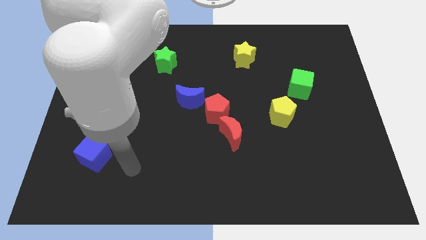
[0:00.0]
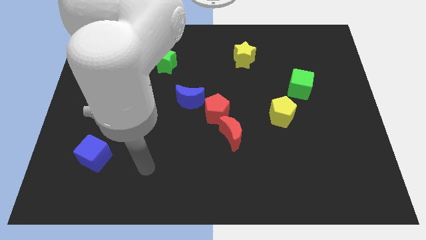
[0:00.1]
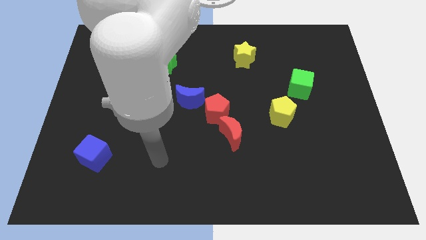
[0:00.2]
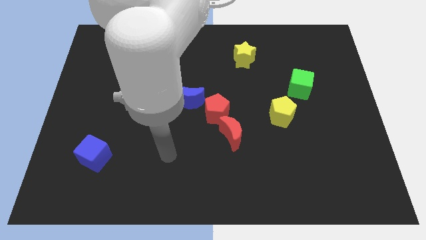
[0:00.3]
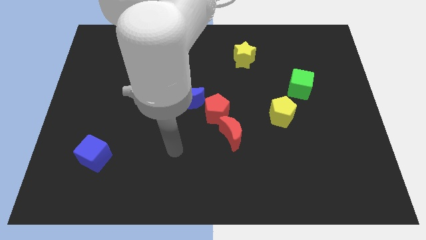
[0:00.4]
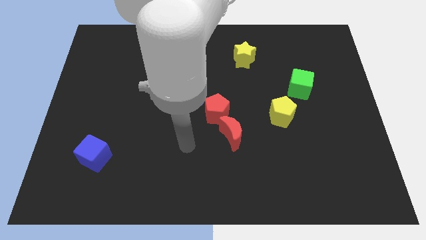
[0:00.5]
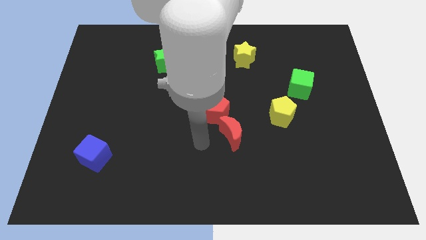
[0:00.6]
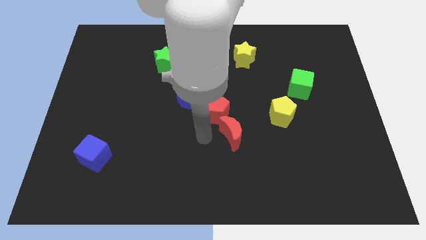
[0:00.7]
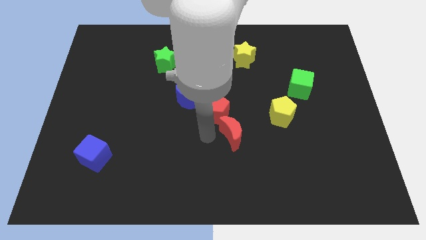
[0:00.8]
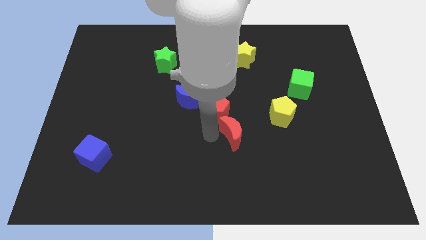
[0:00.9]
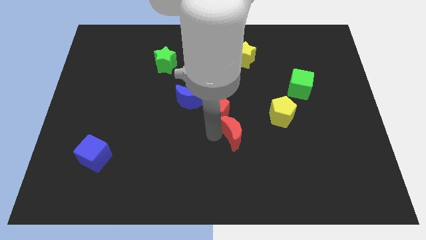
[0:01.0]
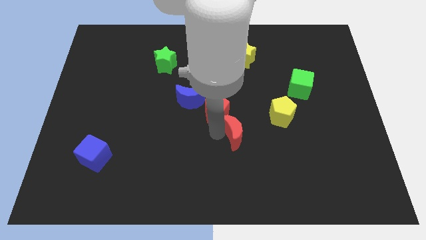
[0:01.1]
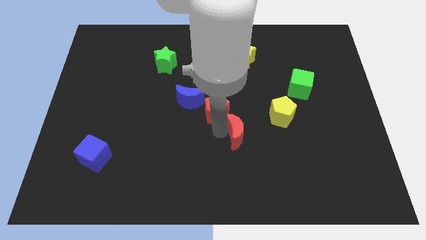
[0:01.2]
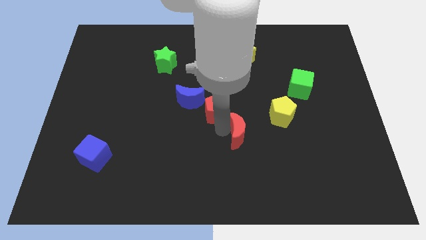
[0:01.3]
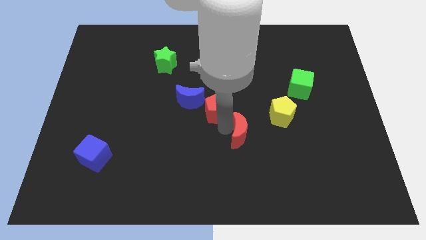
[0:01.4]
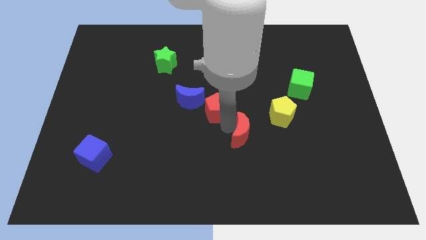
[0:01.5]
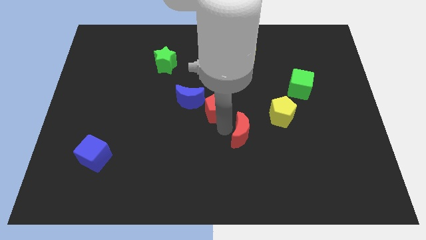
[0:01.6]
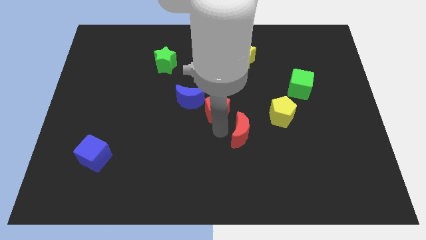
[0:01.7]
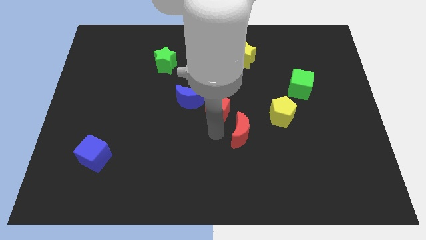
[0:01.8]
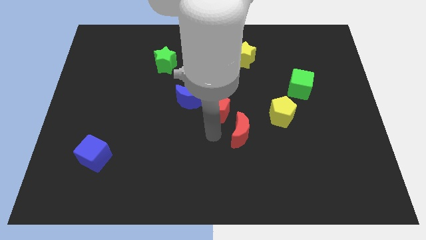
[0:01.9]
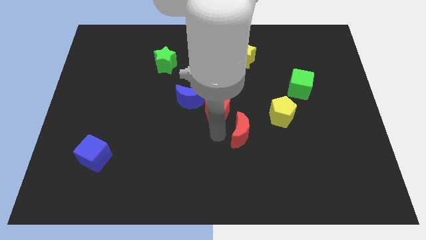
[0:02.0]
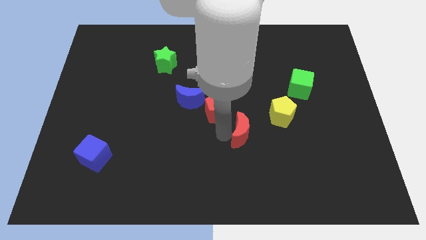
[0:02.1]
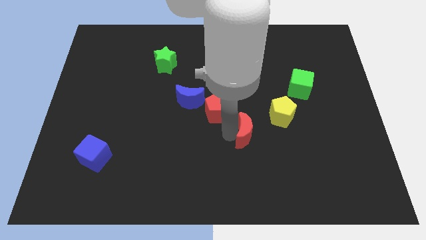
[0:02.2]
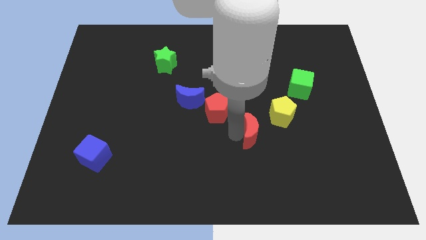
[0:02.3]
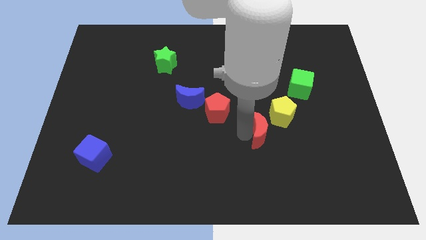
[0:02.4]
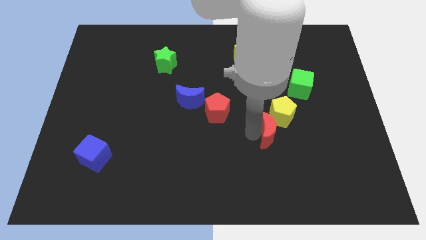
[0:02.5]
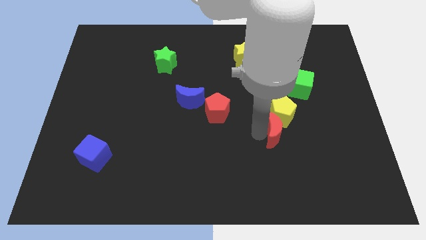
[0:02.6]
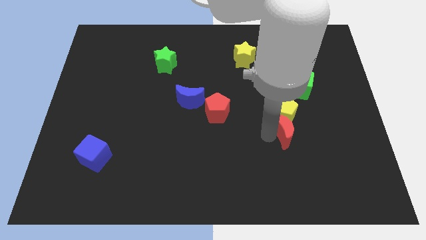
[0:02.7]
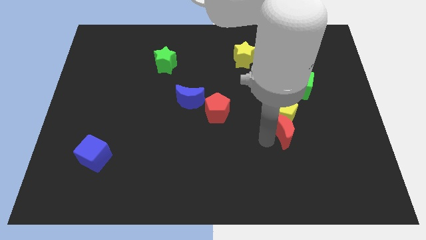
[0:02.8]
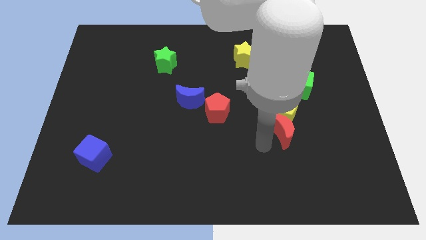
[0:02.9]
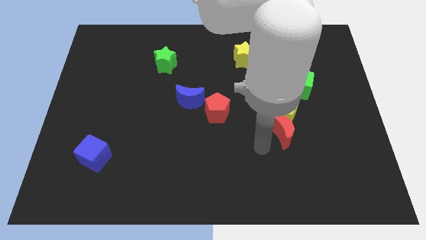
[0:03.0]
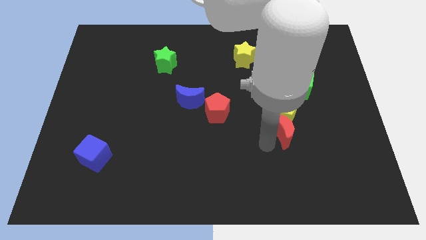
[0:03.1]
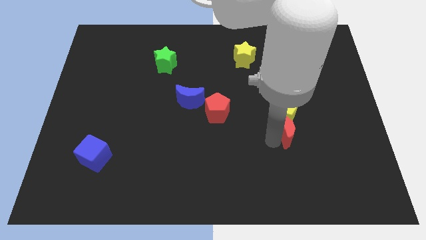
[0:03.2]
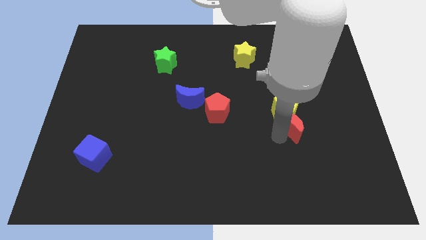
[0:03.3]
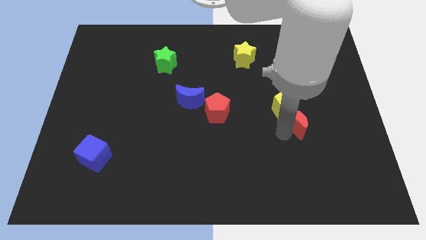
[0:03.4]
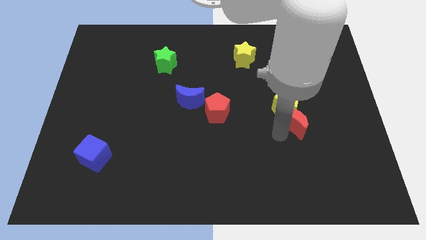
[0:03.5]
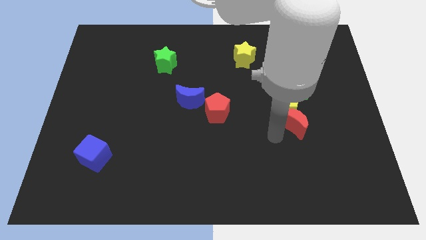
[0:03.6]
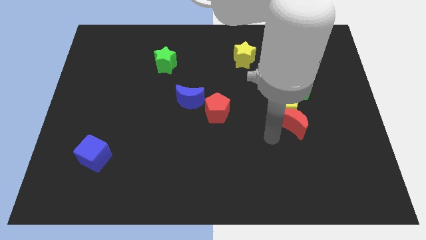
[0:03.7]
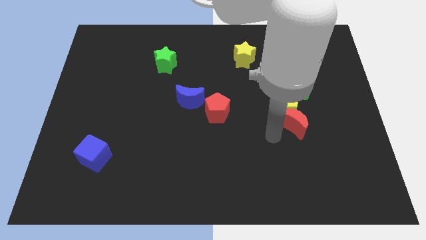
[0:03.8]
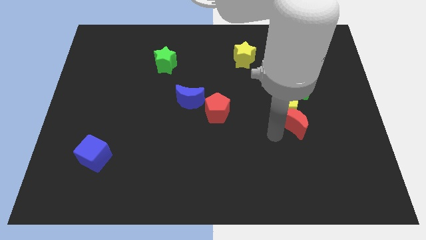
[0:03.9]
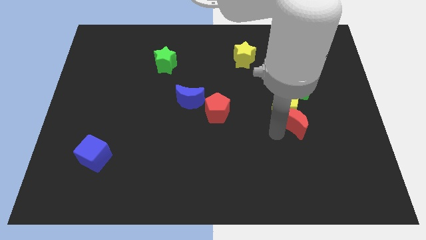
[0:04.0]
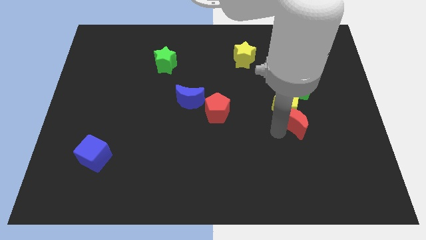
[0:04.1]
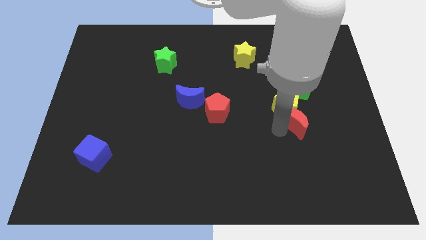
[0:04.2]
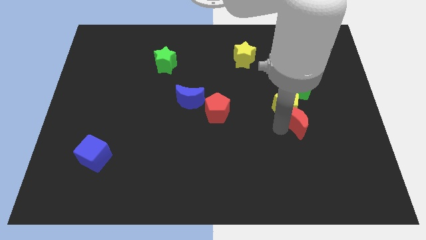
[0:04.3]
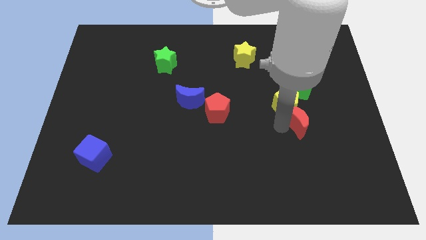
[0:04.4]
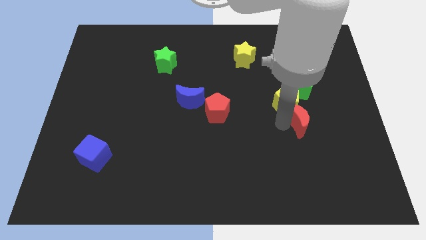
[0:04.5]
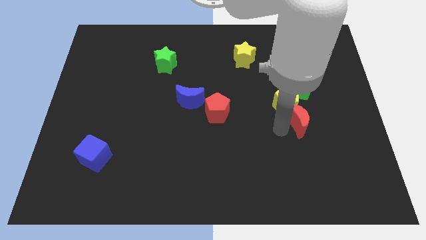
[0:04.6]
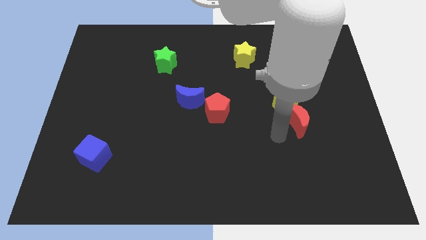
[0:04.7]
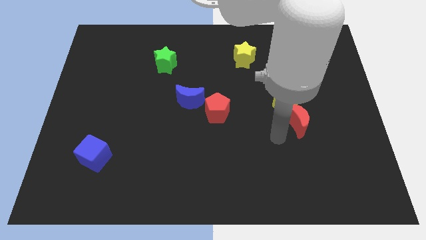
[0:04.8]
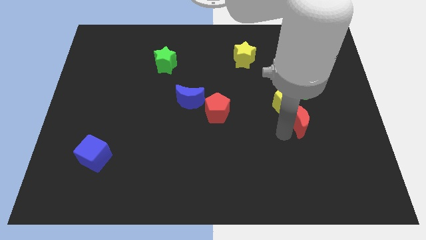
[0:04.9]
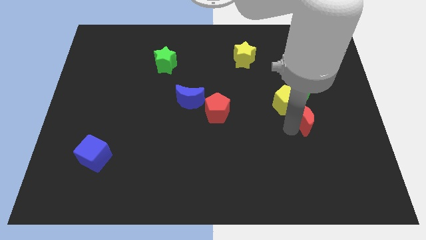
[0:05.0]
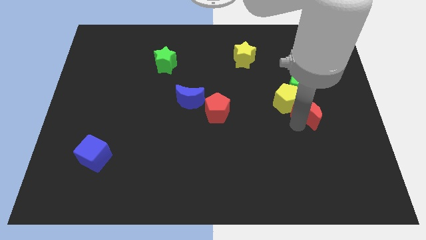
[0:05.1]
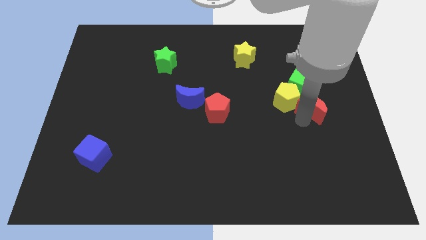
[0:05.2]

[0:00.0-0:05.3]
push the red moon to the bottom right side of the green cube
